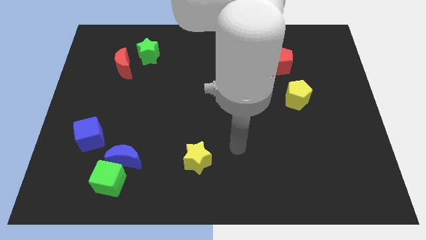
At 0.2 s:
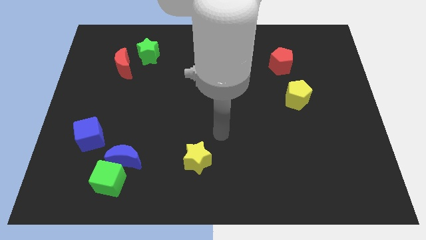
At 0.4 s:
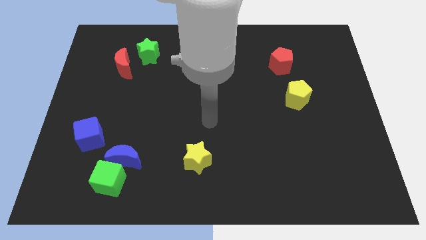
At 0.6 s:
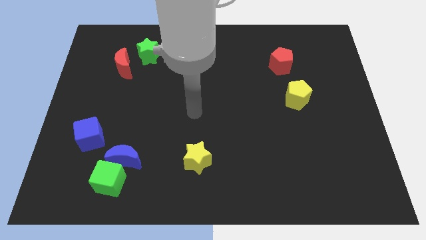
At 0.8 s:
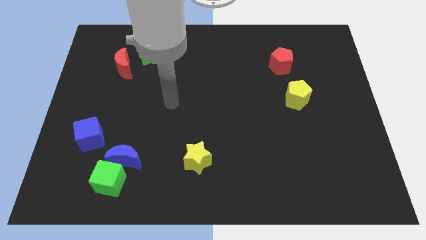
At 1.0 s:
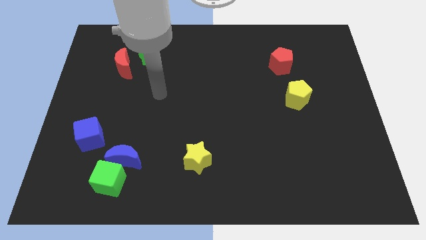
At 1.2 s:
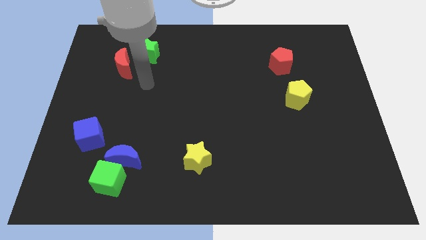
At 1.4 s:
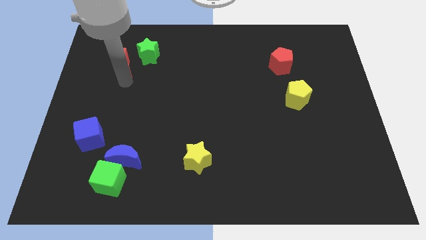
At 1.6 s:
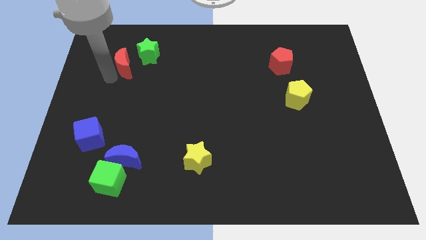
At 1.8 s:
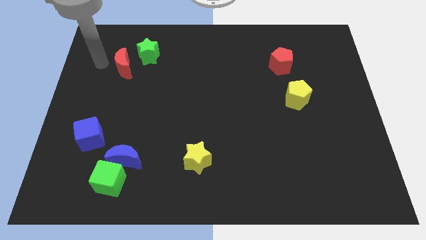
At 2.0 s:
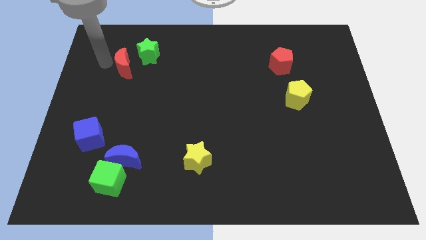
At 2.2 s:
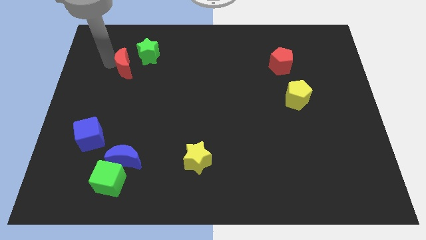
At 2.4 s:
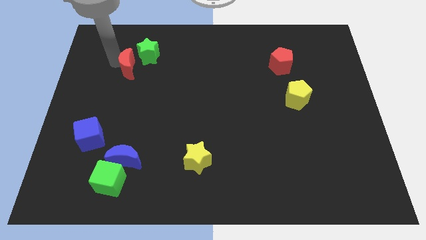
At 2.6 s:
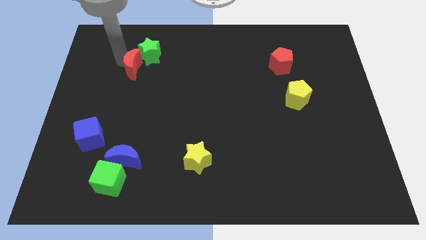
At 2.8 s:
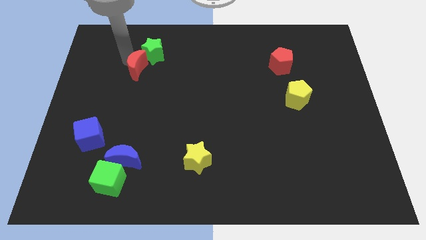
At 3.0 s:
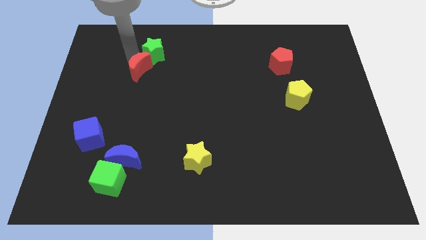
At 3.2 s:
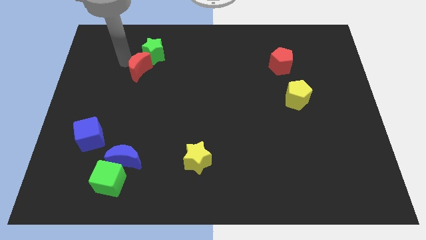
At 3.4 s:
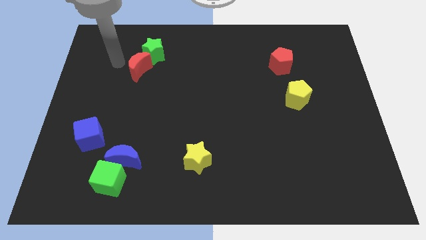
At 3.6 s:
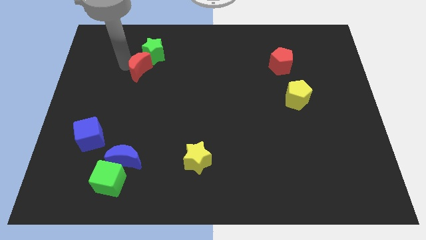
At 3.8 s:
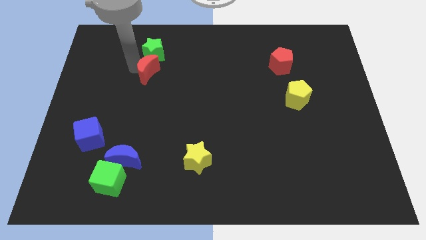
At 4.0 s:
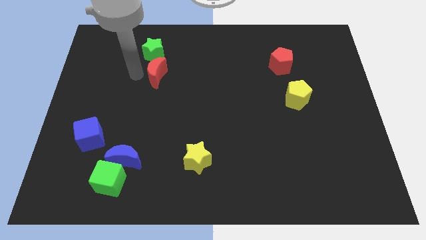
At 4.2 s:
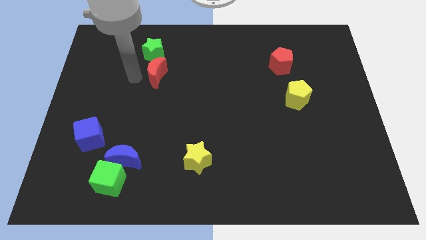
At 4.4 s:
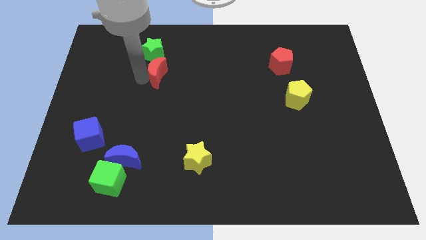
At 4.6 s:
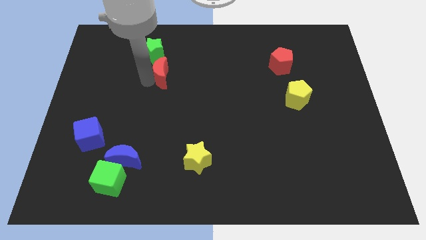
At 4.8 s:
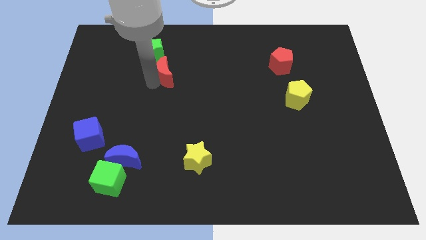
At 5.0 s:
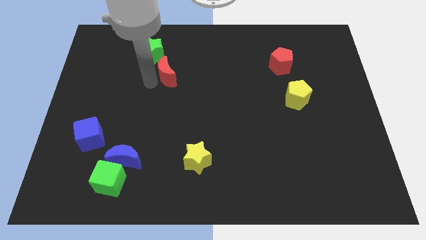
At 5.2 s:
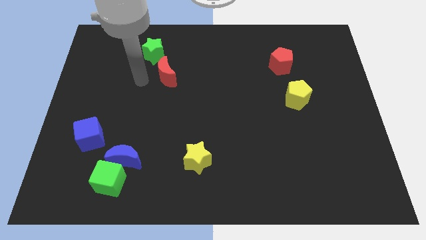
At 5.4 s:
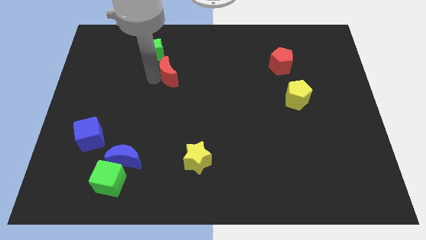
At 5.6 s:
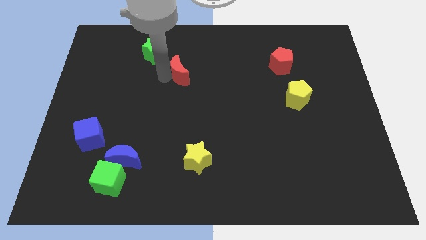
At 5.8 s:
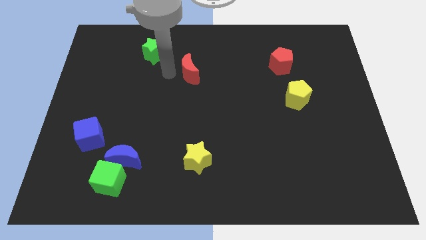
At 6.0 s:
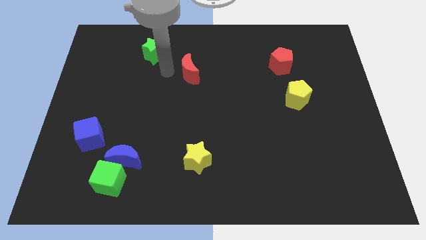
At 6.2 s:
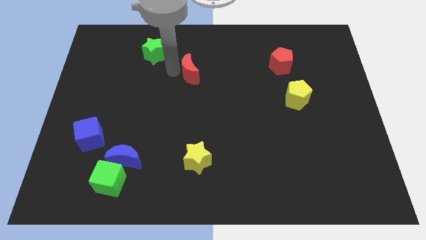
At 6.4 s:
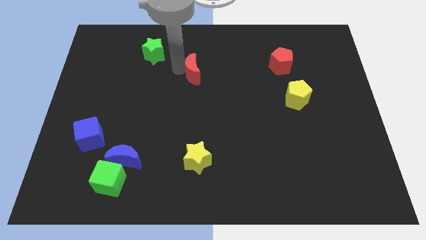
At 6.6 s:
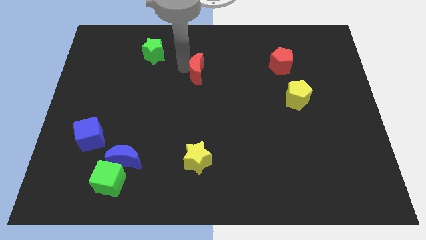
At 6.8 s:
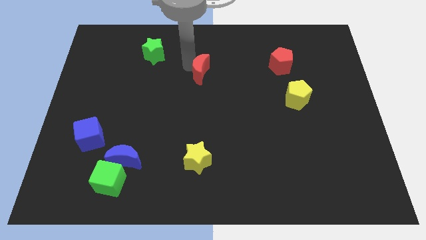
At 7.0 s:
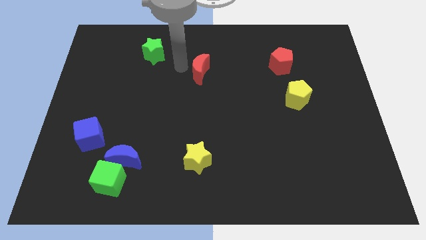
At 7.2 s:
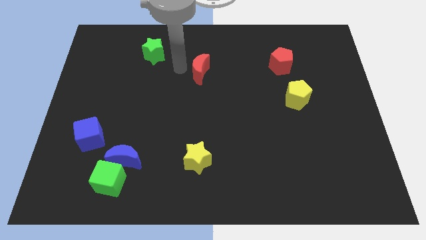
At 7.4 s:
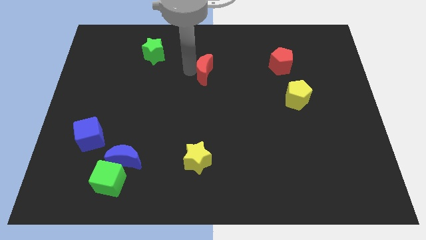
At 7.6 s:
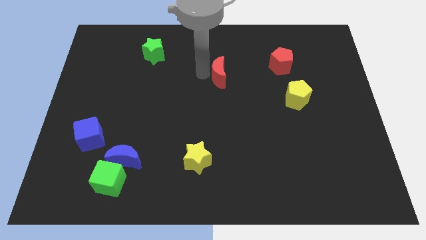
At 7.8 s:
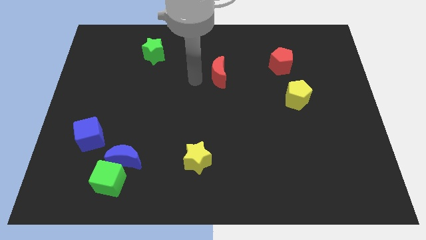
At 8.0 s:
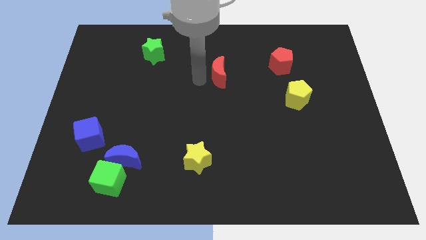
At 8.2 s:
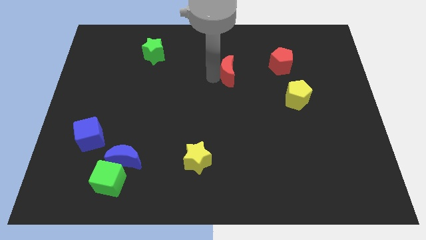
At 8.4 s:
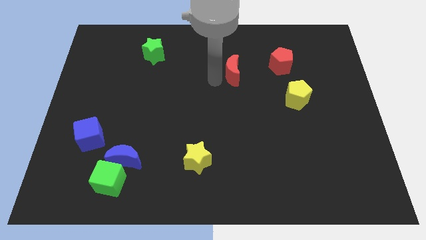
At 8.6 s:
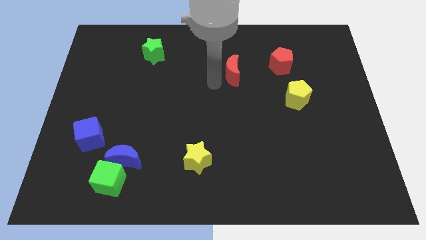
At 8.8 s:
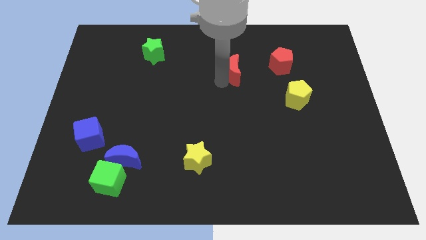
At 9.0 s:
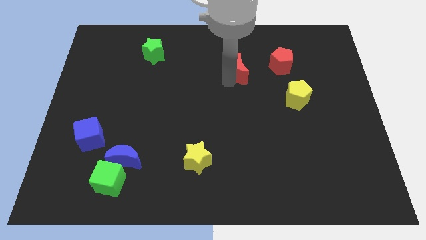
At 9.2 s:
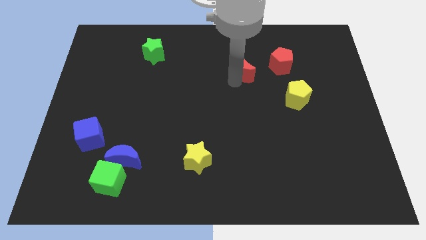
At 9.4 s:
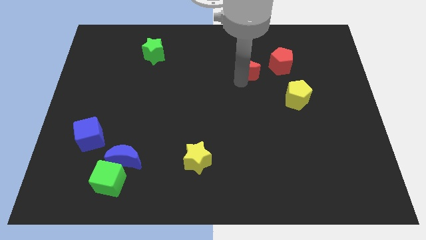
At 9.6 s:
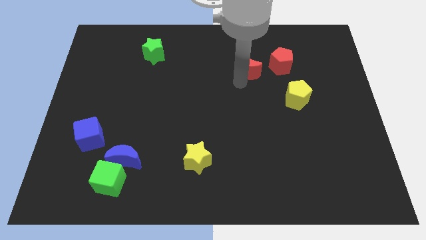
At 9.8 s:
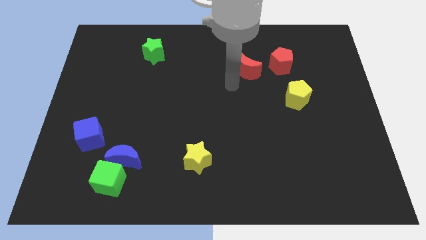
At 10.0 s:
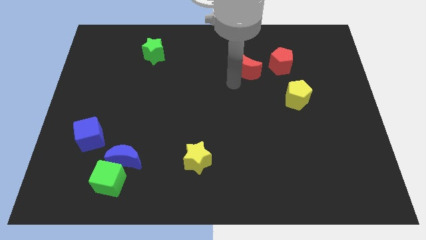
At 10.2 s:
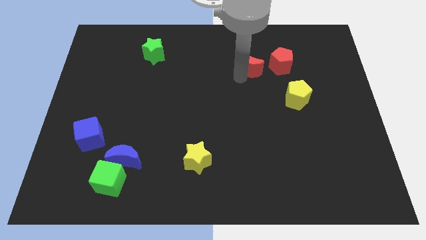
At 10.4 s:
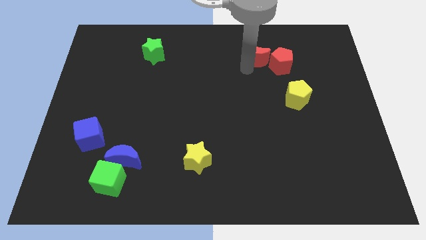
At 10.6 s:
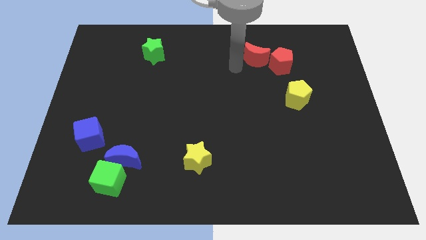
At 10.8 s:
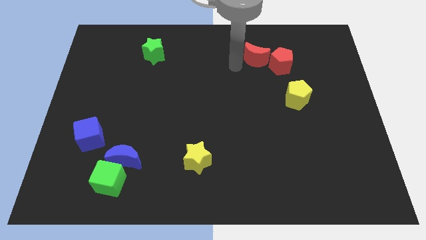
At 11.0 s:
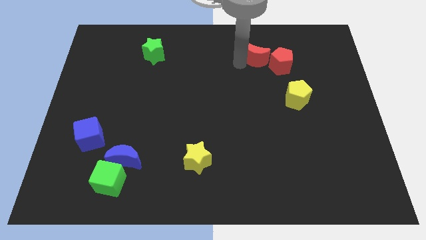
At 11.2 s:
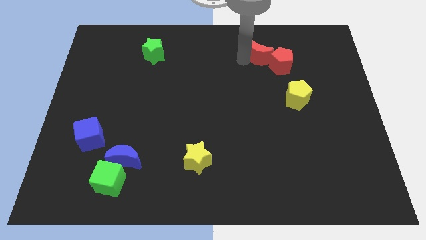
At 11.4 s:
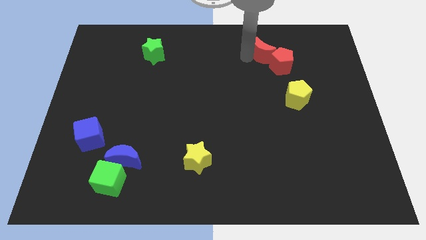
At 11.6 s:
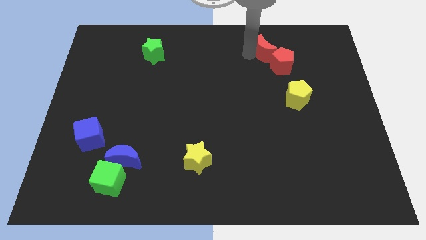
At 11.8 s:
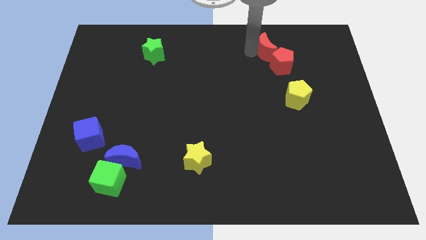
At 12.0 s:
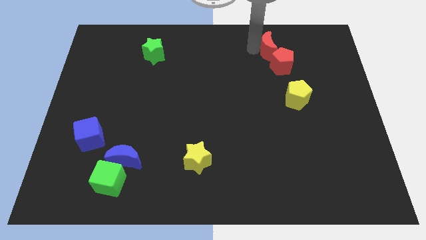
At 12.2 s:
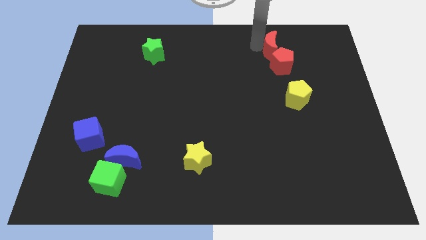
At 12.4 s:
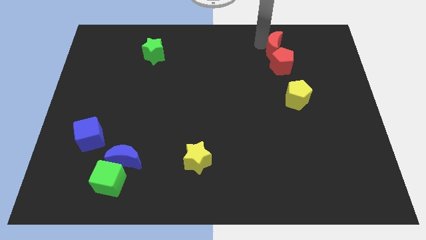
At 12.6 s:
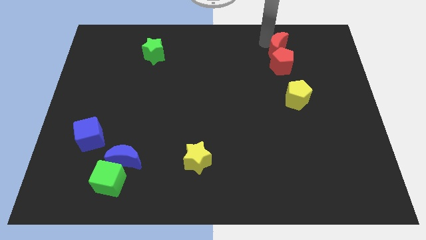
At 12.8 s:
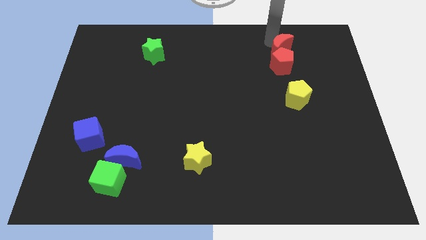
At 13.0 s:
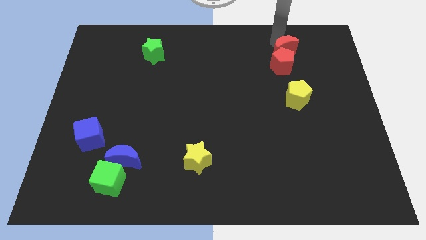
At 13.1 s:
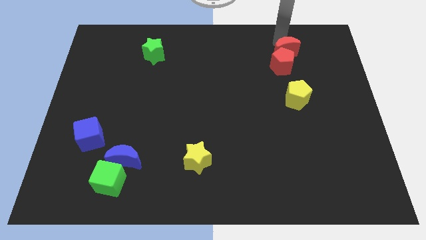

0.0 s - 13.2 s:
put the red moon to the top of the yellow pentagon
